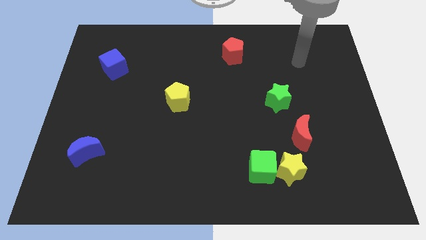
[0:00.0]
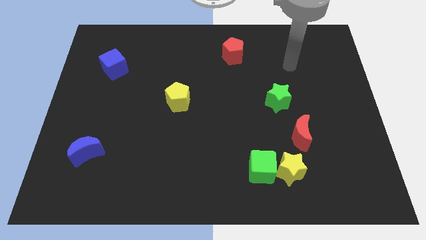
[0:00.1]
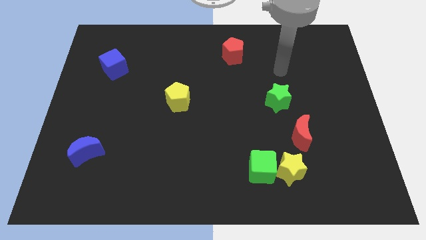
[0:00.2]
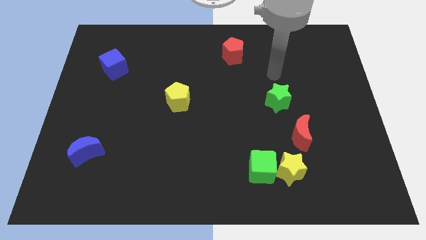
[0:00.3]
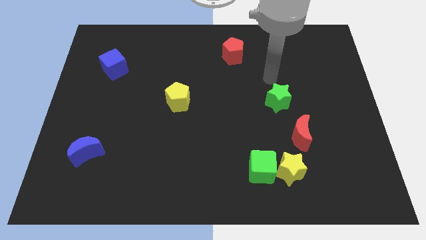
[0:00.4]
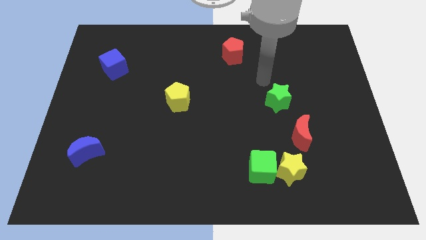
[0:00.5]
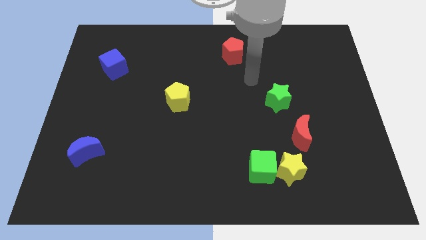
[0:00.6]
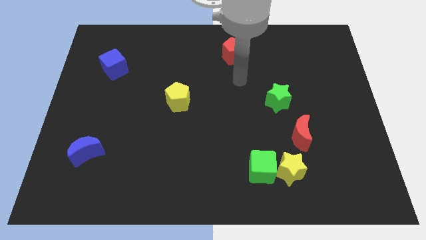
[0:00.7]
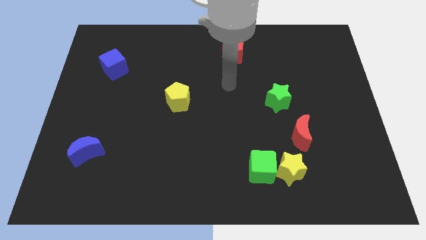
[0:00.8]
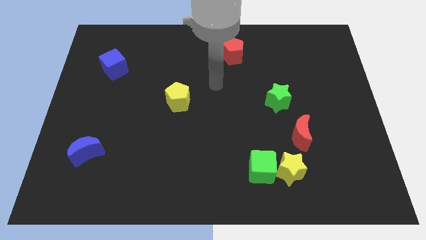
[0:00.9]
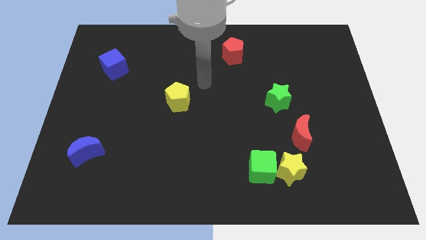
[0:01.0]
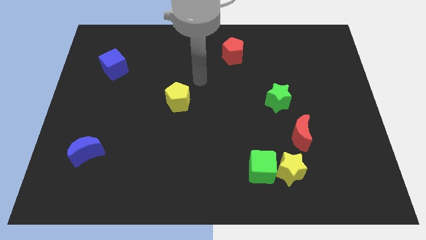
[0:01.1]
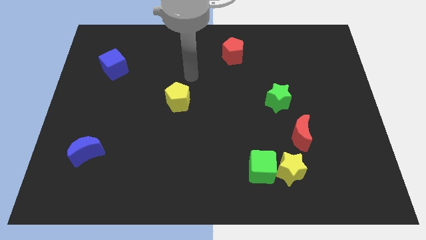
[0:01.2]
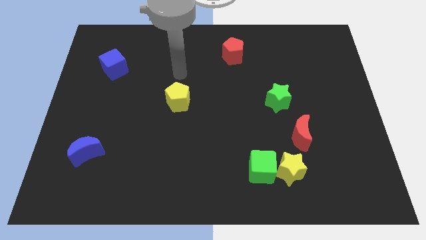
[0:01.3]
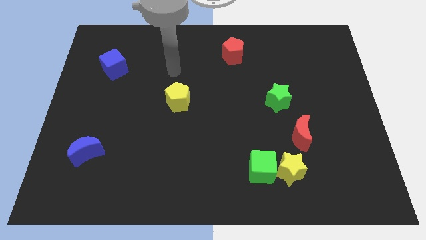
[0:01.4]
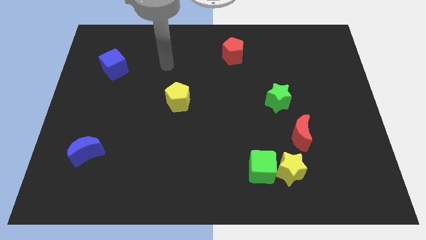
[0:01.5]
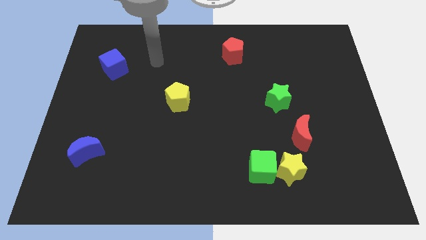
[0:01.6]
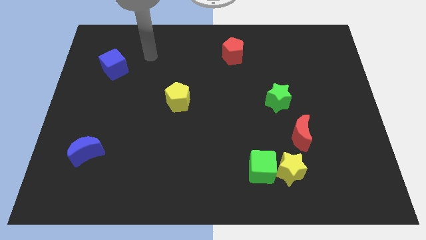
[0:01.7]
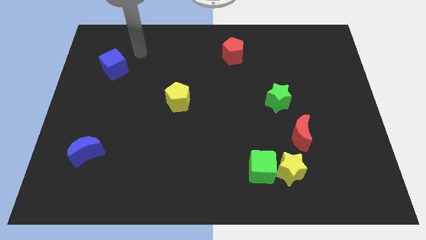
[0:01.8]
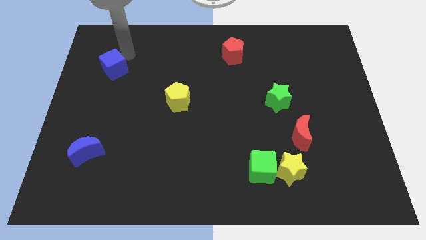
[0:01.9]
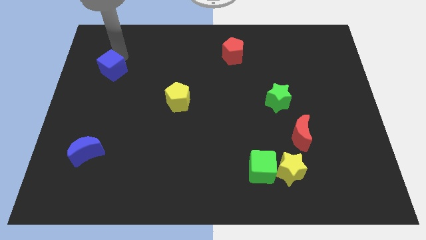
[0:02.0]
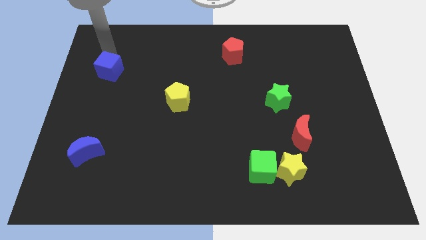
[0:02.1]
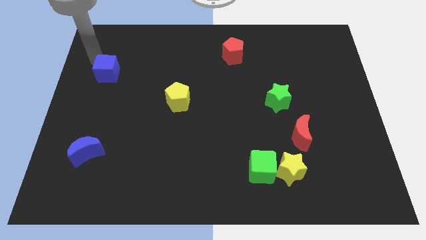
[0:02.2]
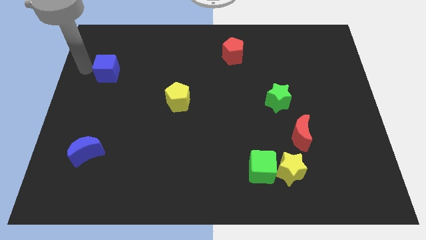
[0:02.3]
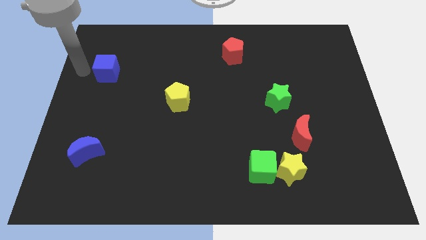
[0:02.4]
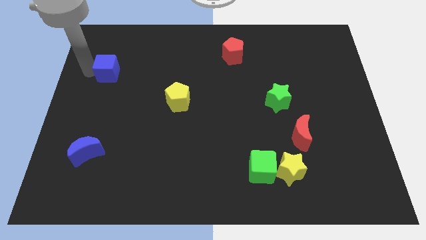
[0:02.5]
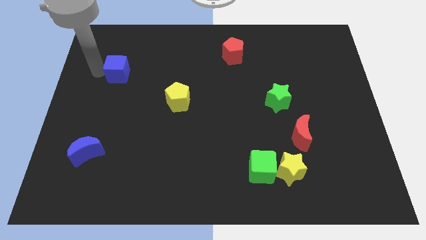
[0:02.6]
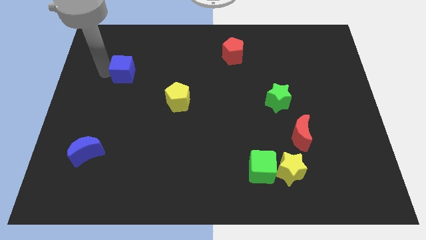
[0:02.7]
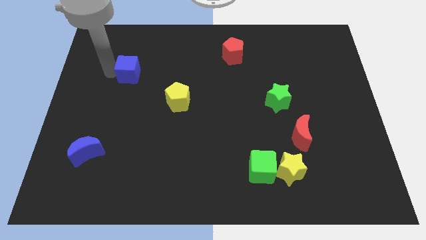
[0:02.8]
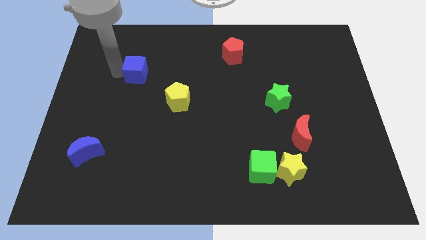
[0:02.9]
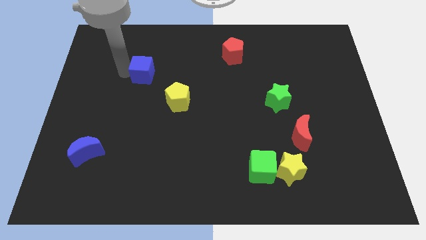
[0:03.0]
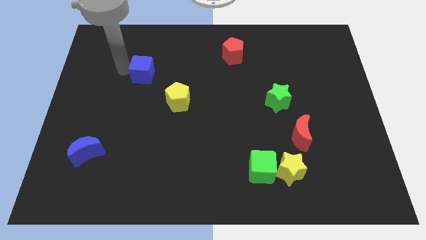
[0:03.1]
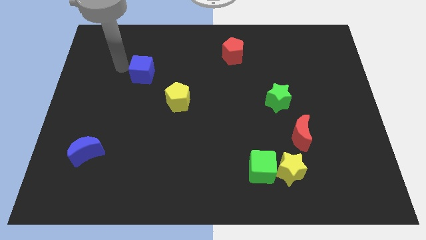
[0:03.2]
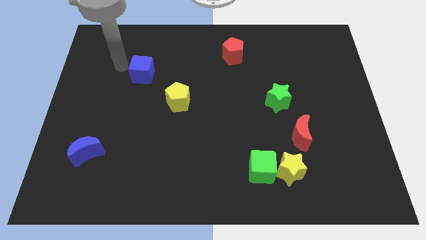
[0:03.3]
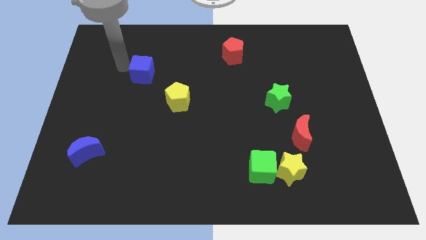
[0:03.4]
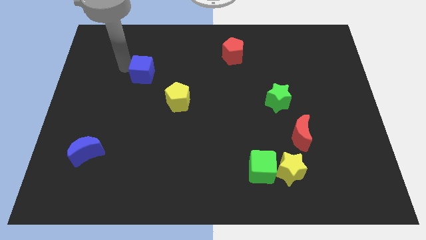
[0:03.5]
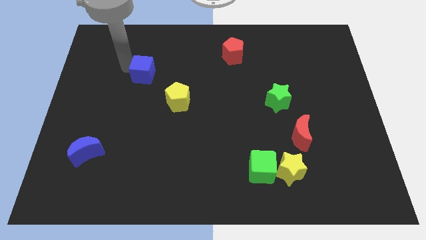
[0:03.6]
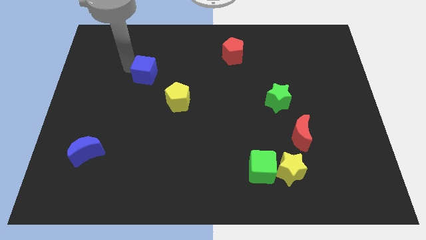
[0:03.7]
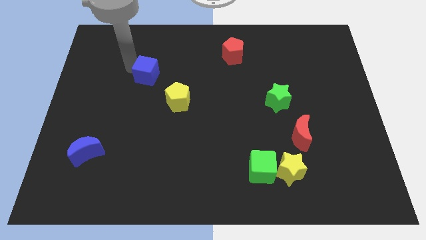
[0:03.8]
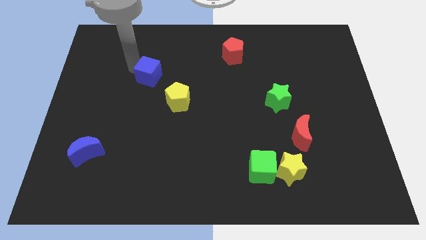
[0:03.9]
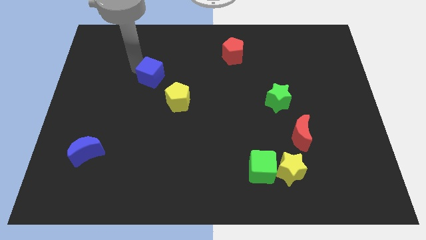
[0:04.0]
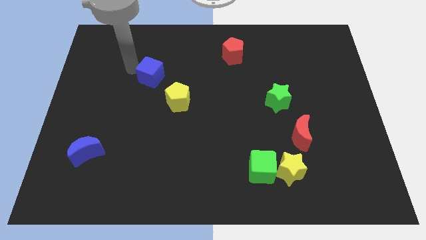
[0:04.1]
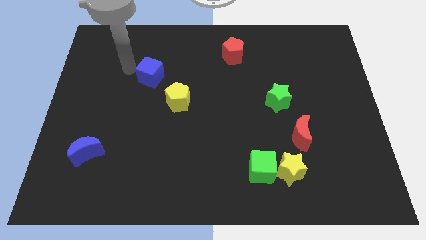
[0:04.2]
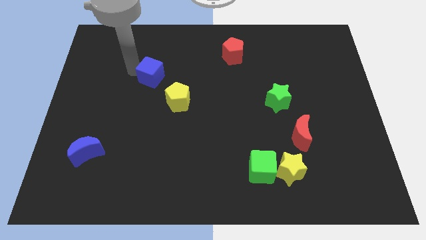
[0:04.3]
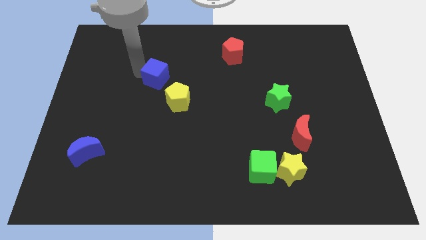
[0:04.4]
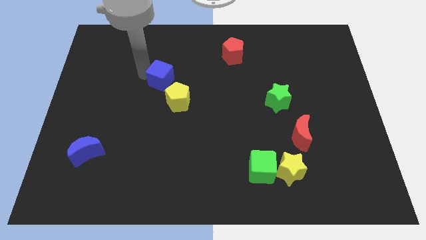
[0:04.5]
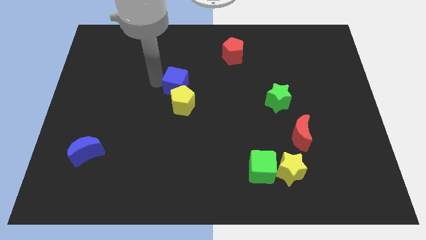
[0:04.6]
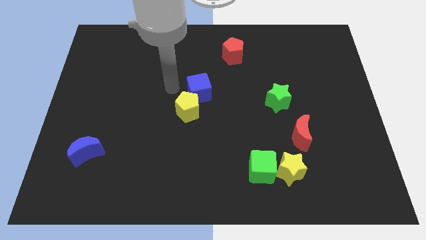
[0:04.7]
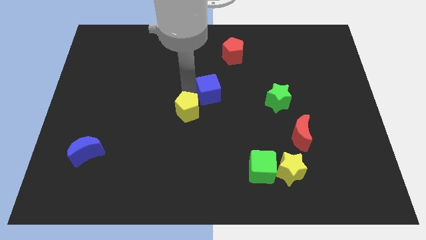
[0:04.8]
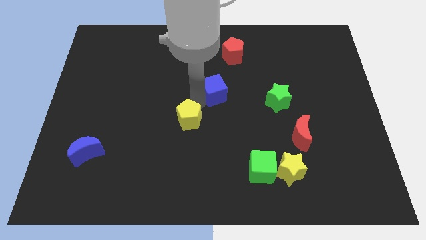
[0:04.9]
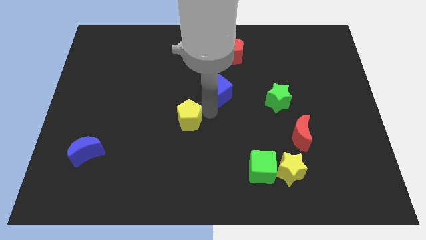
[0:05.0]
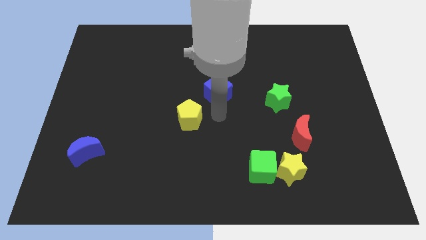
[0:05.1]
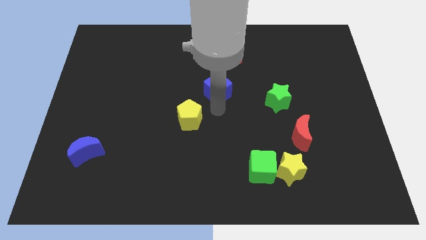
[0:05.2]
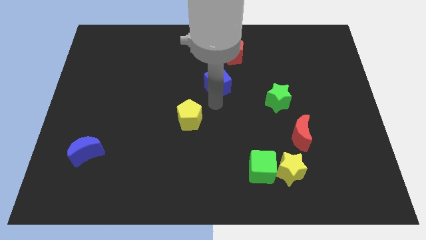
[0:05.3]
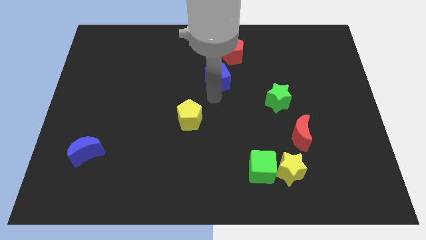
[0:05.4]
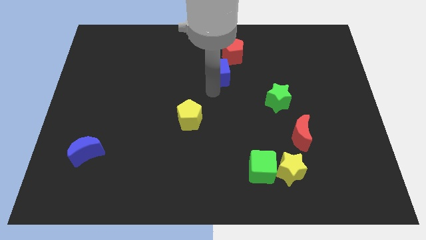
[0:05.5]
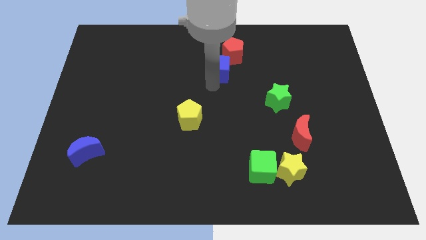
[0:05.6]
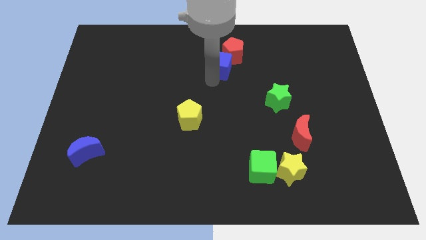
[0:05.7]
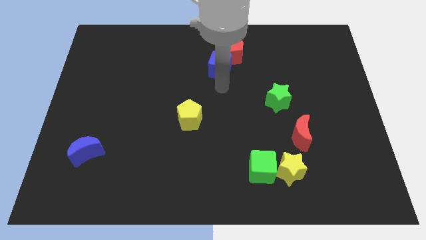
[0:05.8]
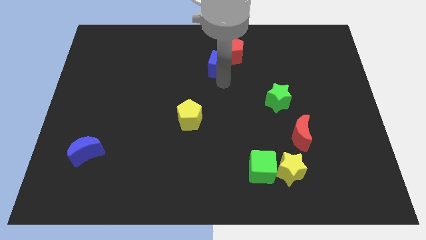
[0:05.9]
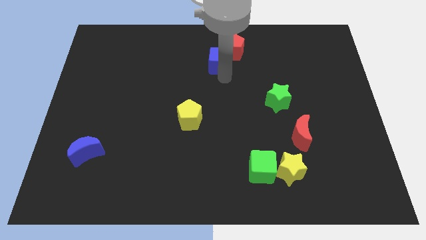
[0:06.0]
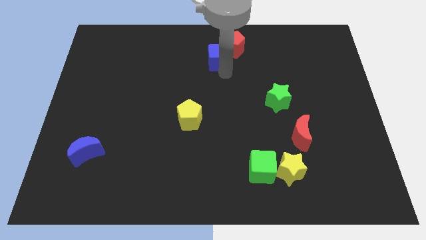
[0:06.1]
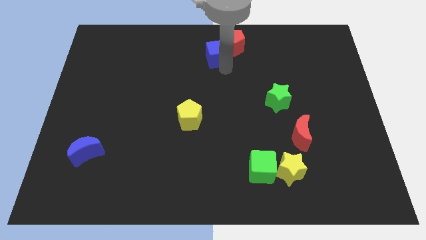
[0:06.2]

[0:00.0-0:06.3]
put the blue cube to the top side
